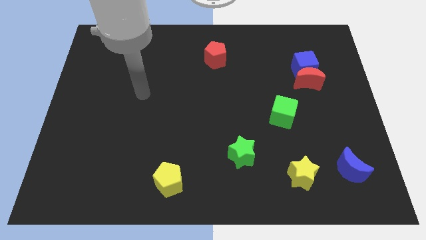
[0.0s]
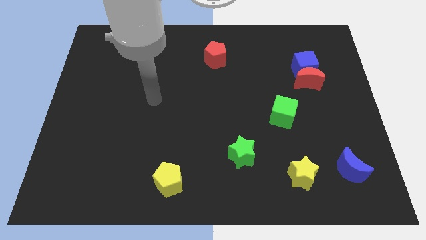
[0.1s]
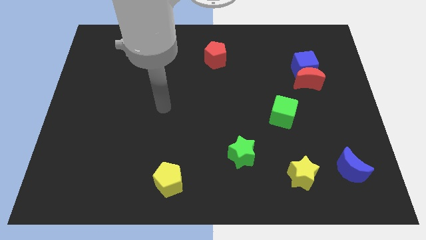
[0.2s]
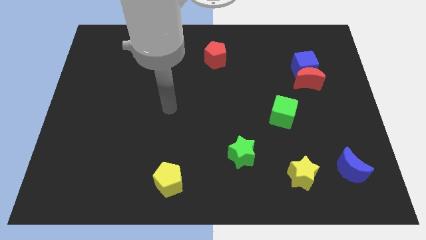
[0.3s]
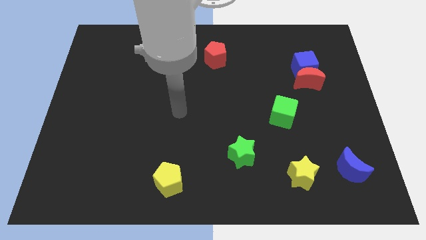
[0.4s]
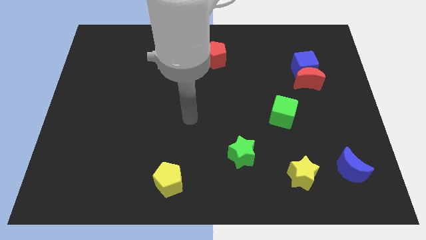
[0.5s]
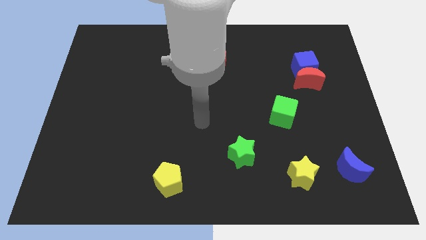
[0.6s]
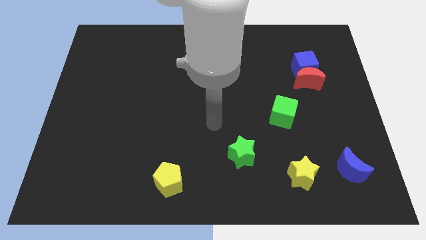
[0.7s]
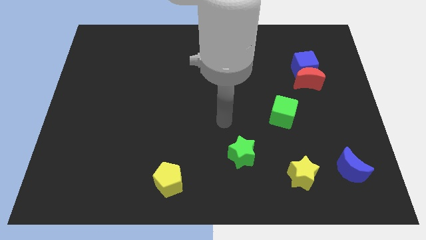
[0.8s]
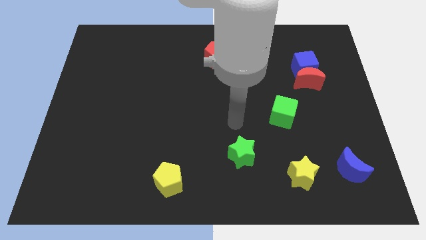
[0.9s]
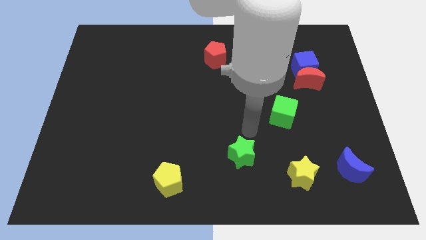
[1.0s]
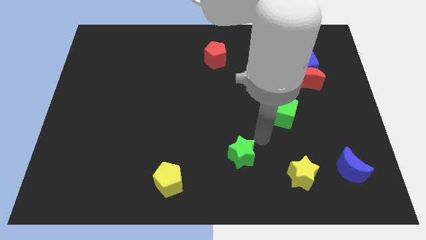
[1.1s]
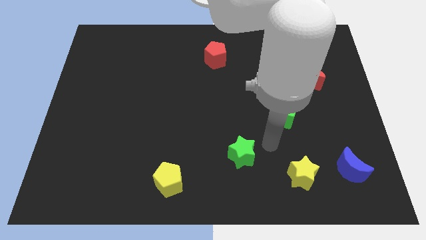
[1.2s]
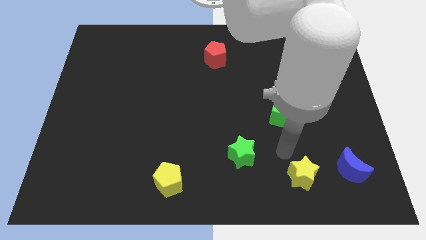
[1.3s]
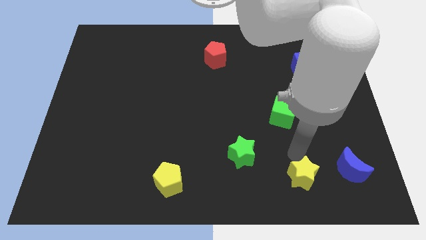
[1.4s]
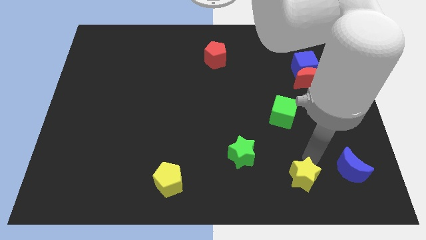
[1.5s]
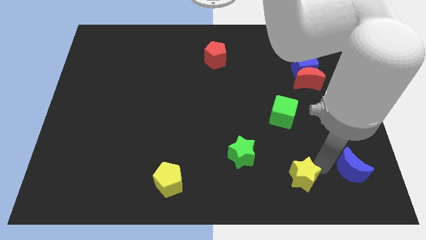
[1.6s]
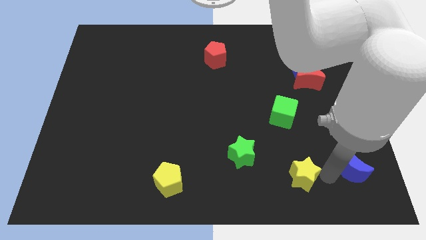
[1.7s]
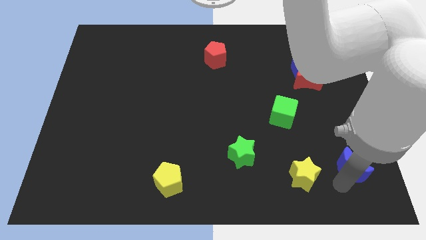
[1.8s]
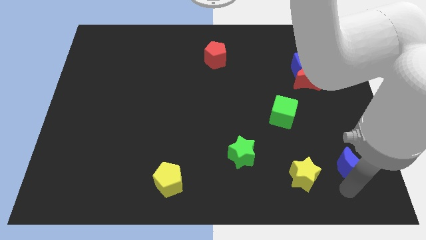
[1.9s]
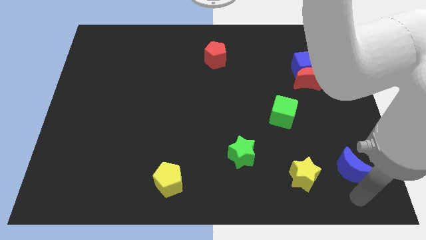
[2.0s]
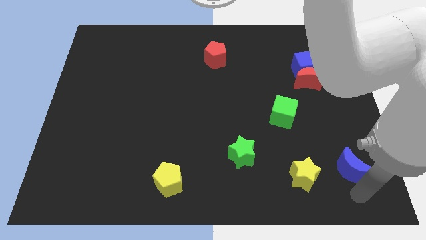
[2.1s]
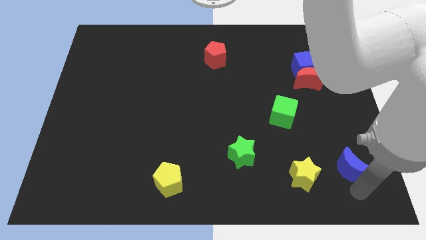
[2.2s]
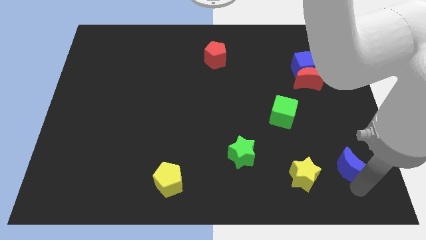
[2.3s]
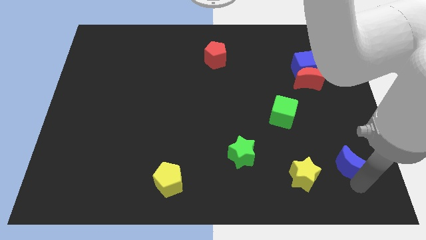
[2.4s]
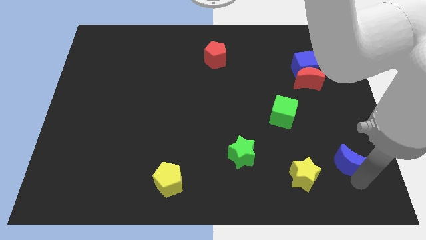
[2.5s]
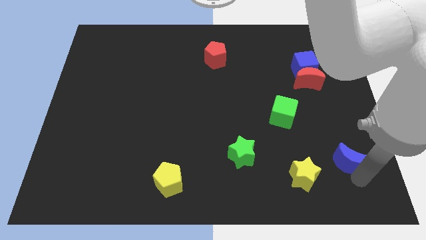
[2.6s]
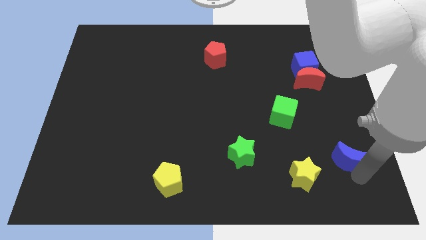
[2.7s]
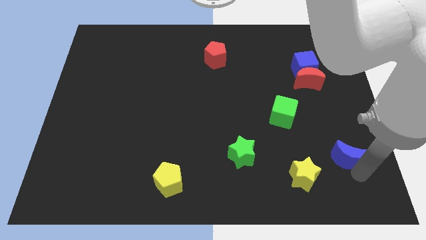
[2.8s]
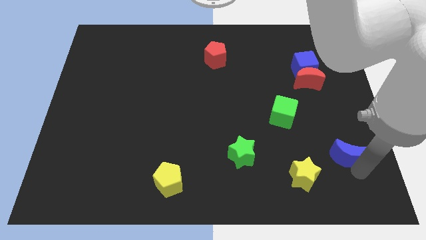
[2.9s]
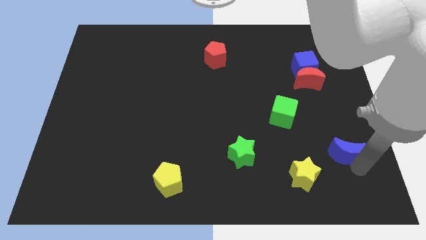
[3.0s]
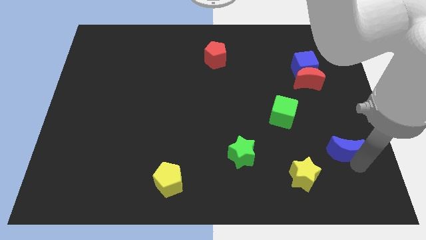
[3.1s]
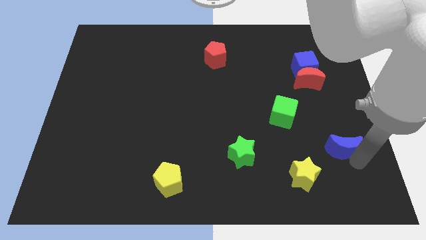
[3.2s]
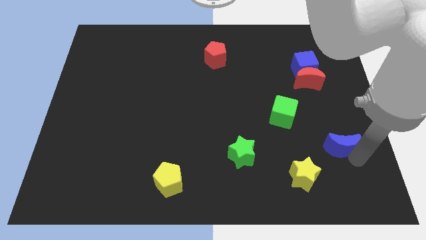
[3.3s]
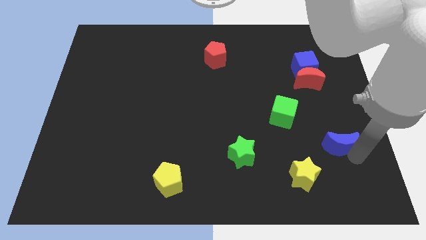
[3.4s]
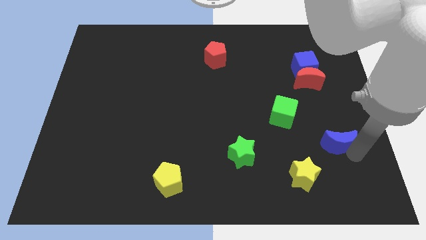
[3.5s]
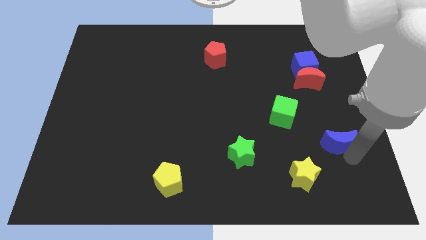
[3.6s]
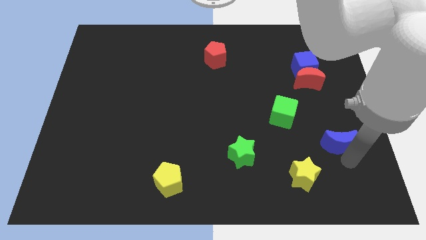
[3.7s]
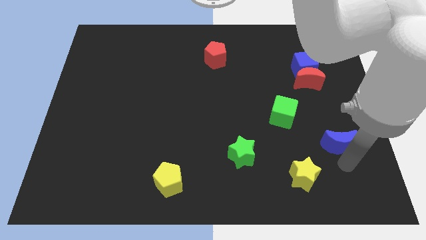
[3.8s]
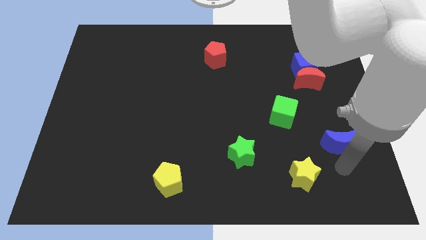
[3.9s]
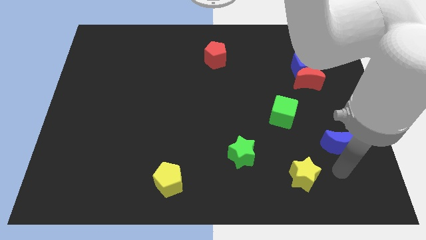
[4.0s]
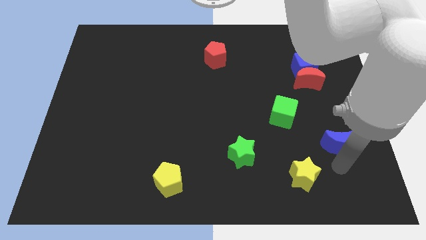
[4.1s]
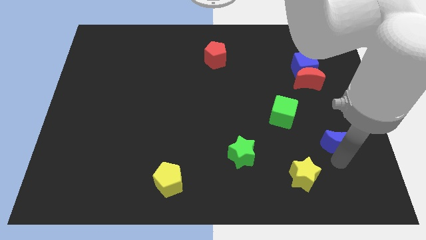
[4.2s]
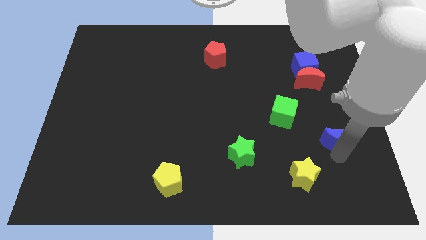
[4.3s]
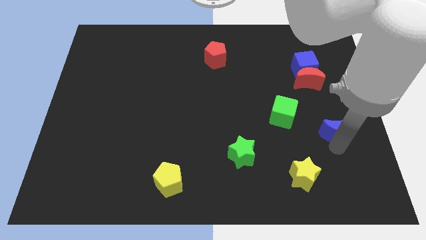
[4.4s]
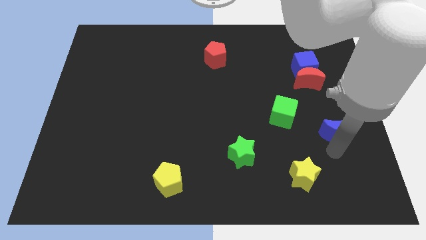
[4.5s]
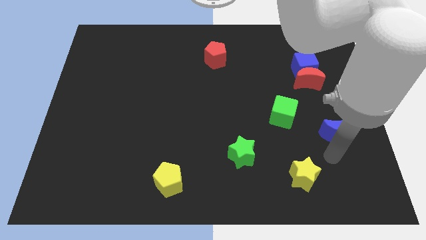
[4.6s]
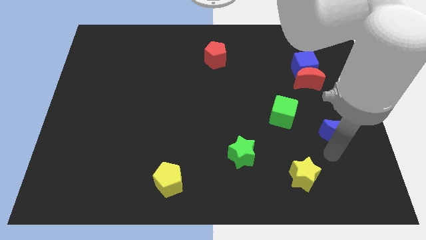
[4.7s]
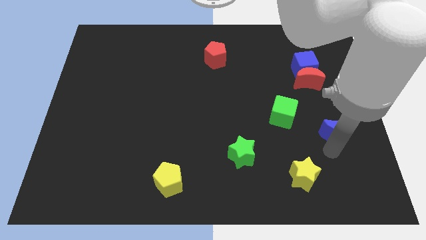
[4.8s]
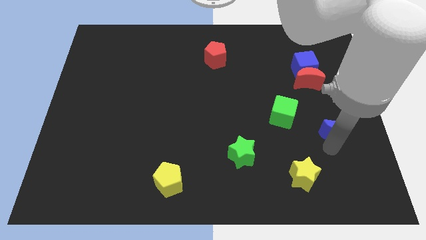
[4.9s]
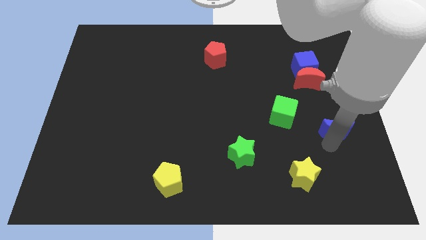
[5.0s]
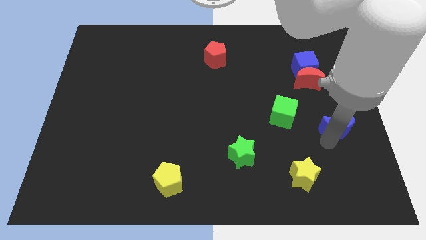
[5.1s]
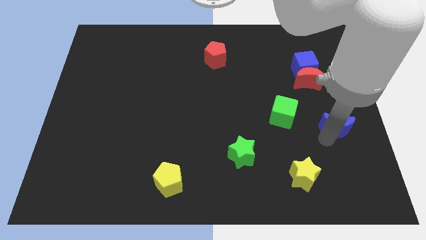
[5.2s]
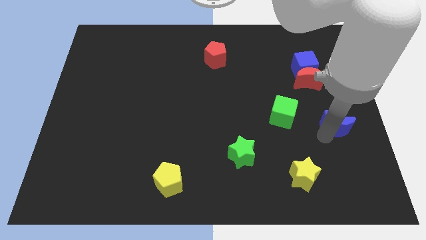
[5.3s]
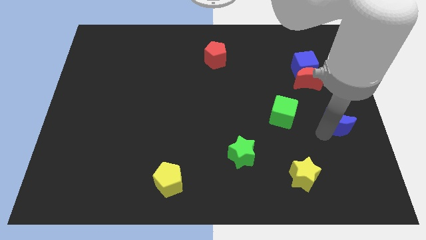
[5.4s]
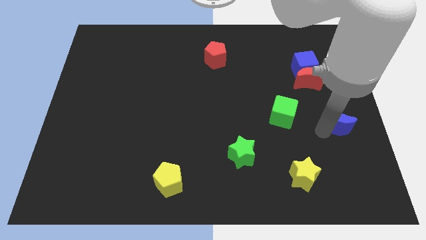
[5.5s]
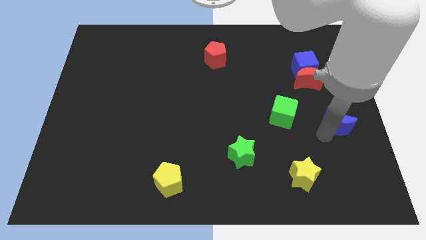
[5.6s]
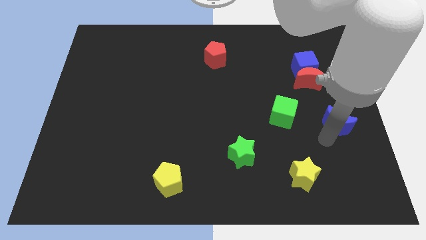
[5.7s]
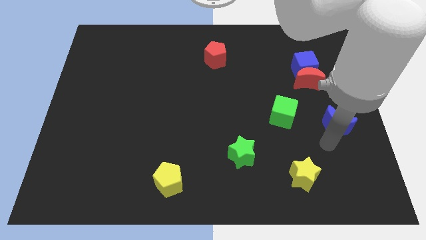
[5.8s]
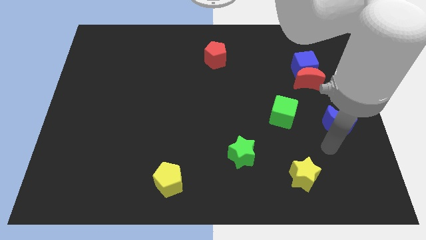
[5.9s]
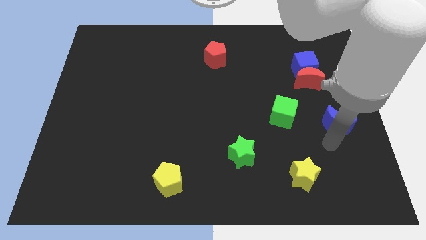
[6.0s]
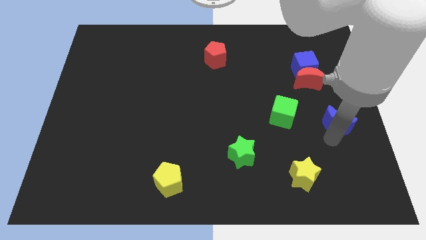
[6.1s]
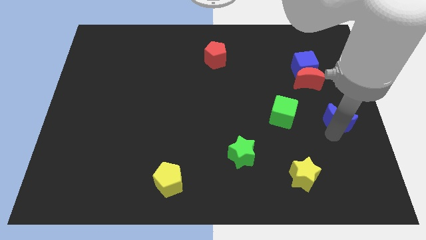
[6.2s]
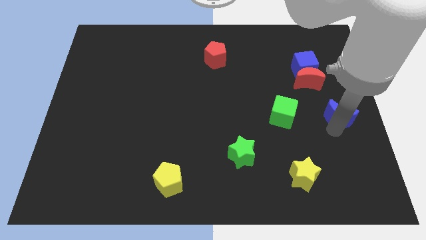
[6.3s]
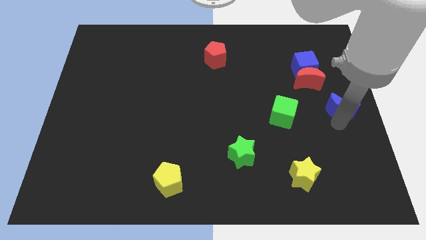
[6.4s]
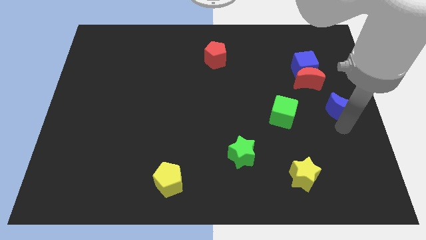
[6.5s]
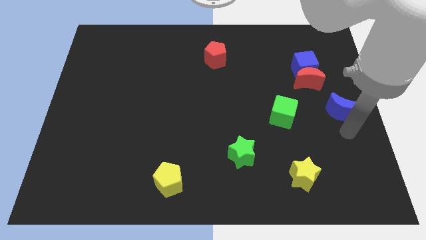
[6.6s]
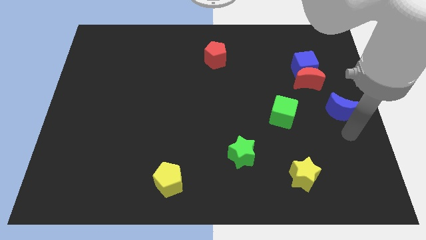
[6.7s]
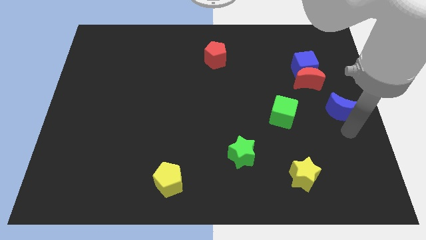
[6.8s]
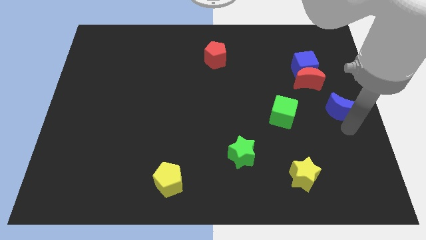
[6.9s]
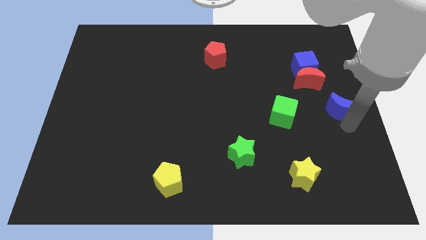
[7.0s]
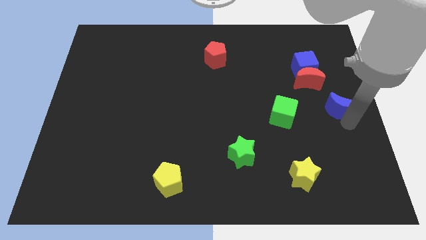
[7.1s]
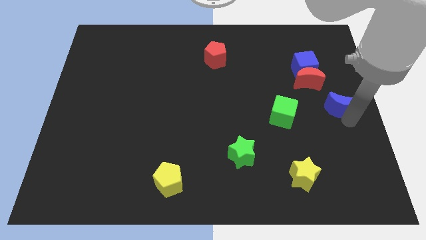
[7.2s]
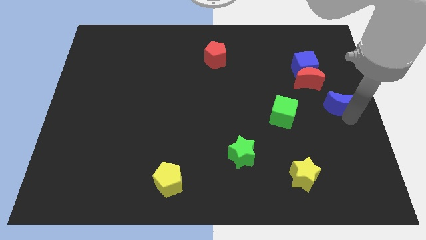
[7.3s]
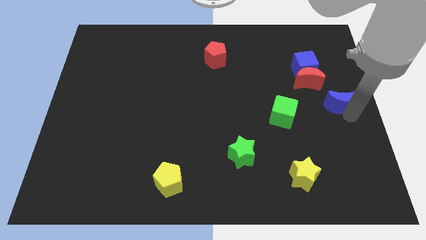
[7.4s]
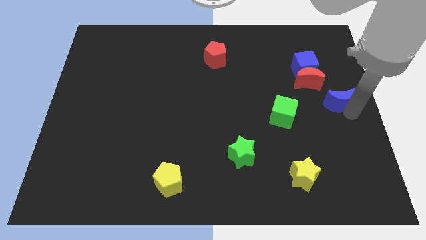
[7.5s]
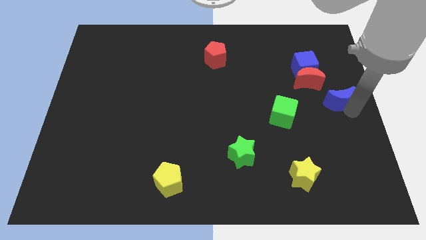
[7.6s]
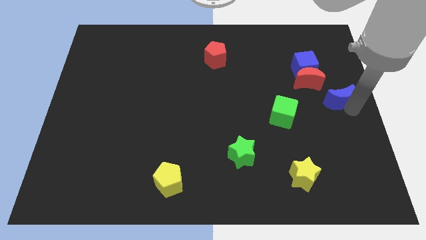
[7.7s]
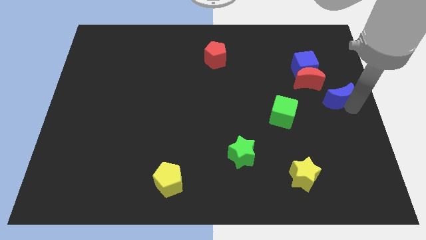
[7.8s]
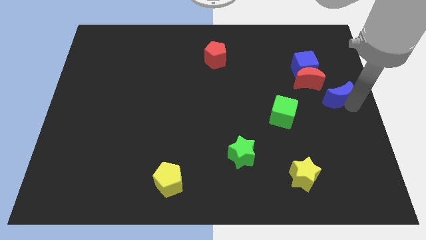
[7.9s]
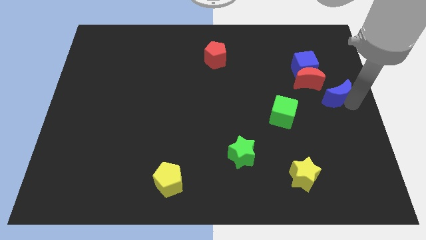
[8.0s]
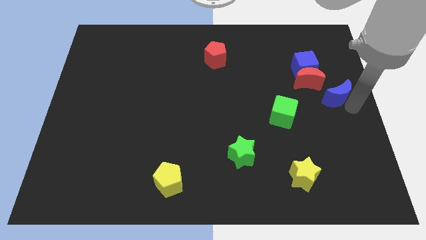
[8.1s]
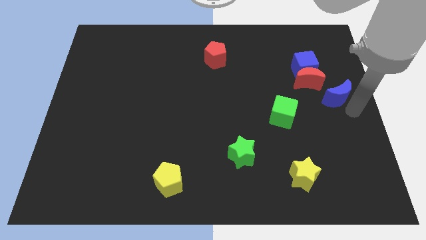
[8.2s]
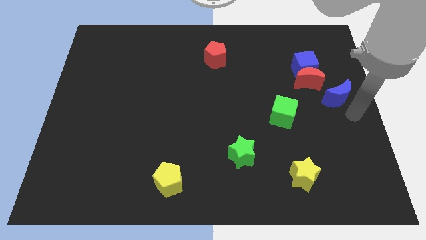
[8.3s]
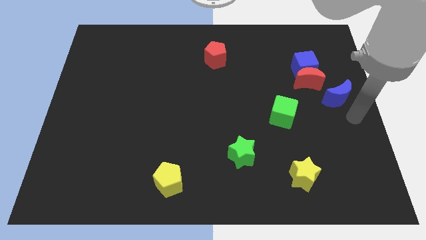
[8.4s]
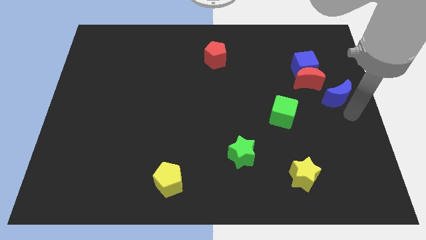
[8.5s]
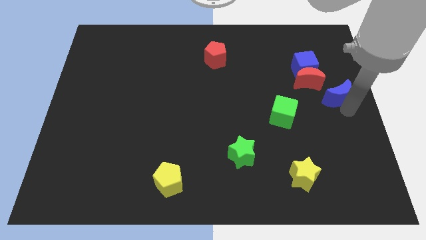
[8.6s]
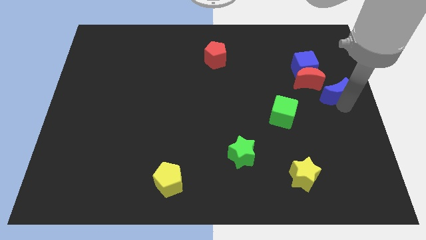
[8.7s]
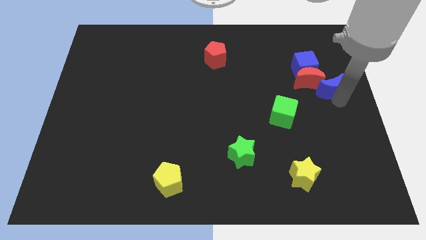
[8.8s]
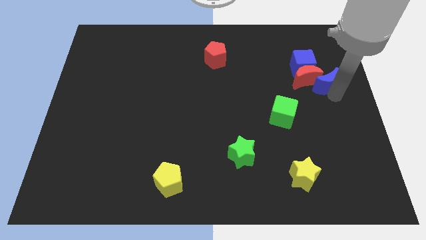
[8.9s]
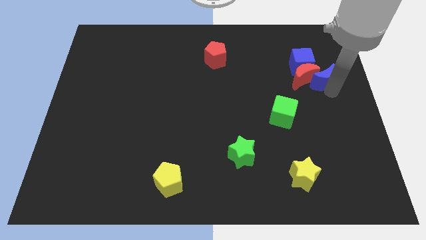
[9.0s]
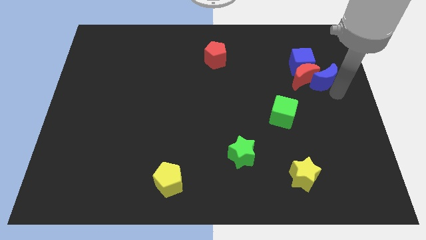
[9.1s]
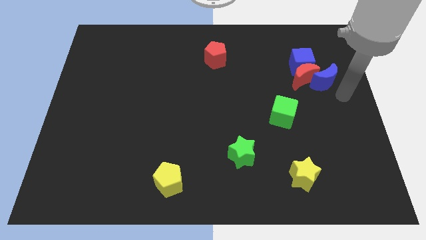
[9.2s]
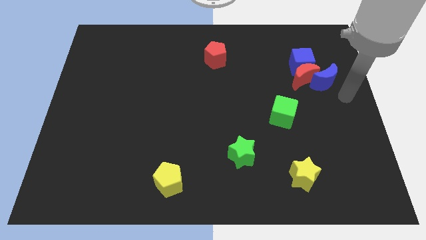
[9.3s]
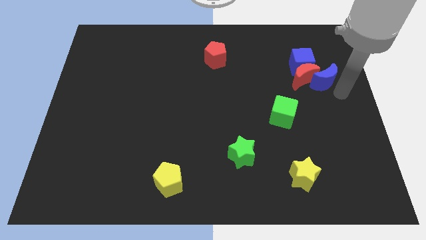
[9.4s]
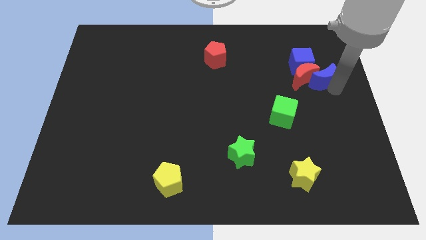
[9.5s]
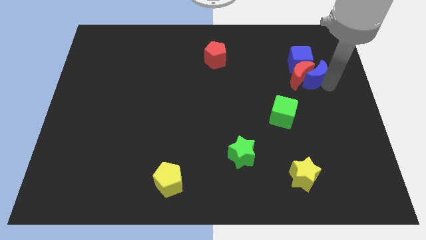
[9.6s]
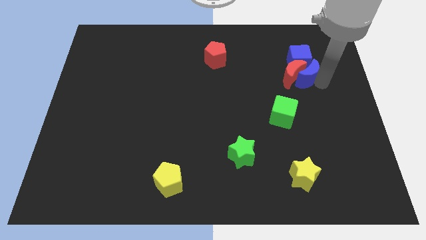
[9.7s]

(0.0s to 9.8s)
put the blue moon towards the blue cube
